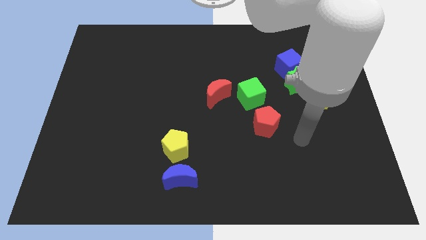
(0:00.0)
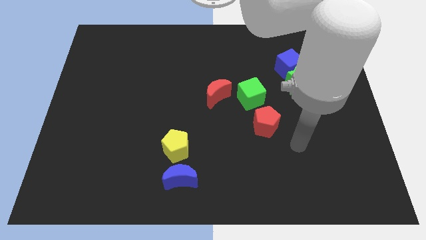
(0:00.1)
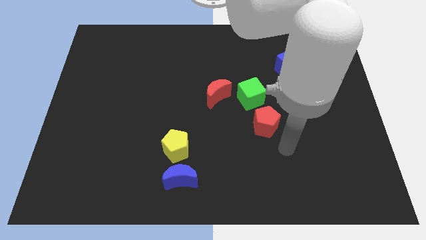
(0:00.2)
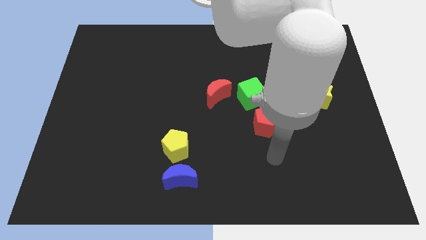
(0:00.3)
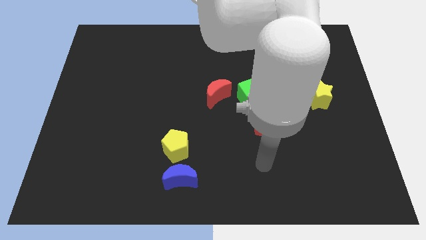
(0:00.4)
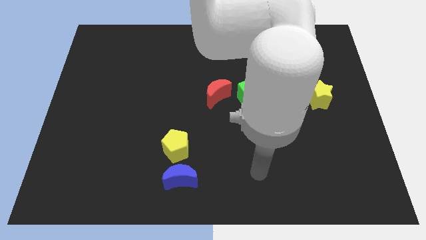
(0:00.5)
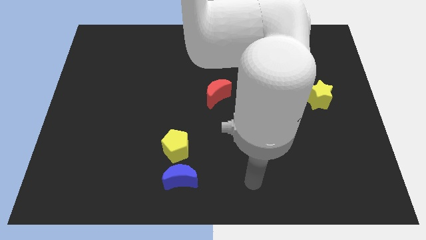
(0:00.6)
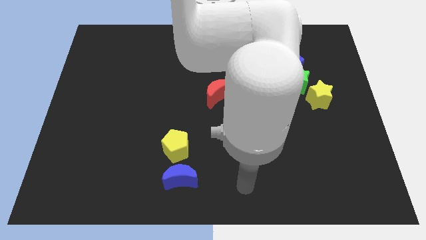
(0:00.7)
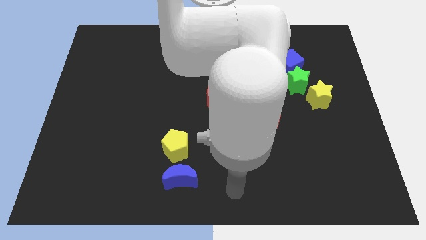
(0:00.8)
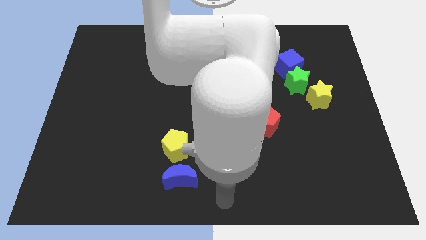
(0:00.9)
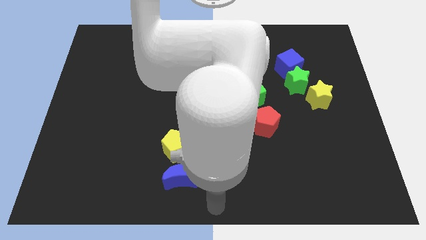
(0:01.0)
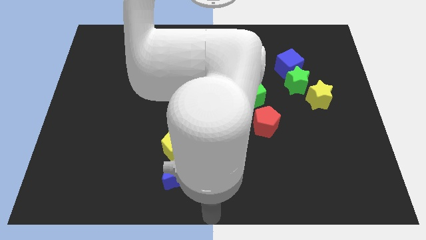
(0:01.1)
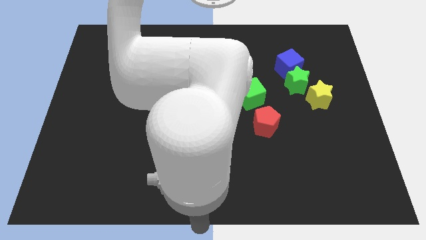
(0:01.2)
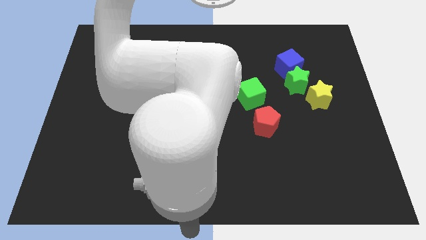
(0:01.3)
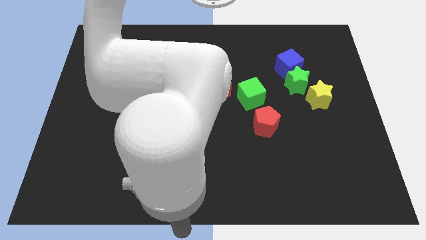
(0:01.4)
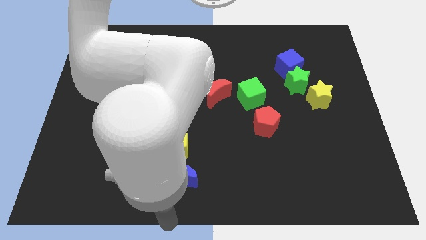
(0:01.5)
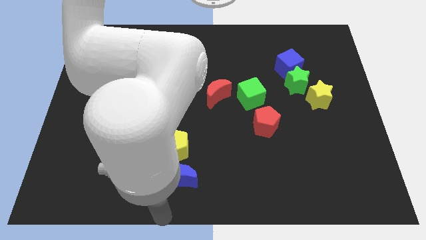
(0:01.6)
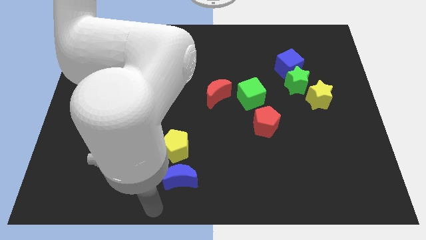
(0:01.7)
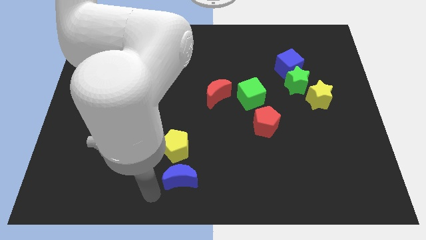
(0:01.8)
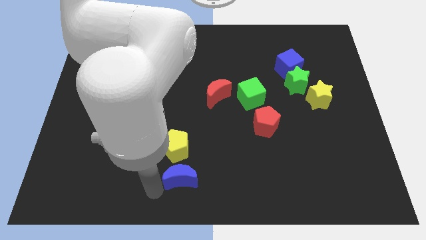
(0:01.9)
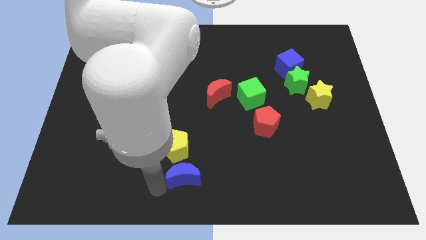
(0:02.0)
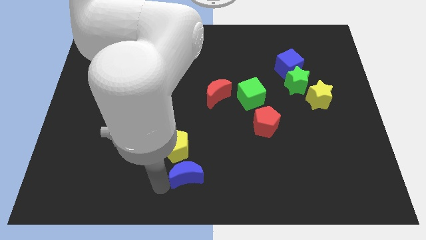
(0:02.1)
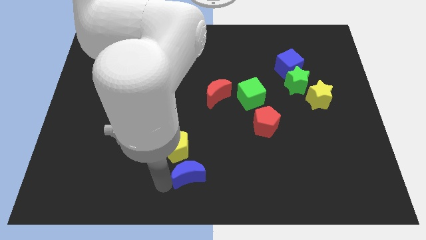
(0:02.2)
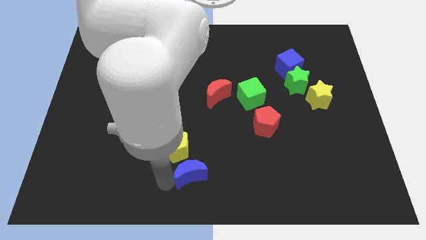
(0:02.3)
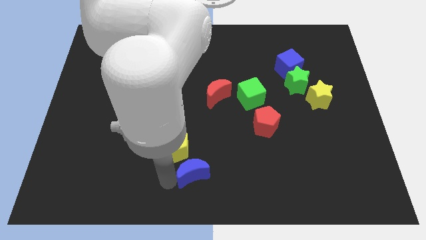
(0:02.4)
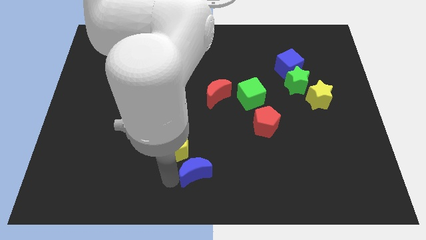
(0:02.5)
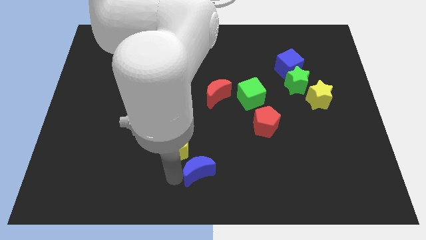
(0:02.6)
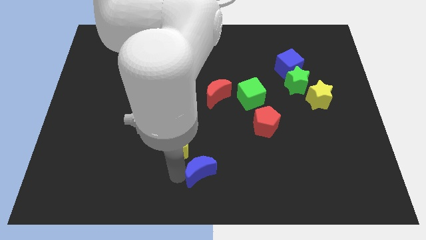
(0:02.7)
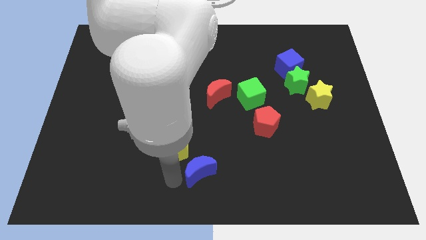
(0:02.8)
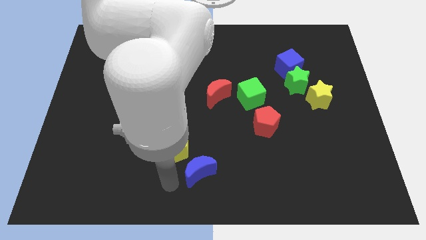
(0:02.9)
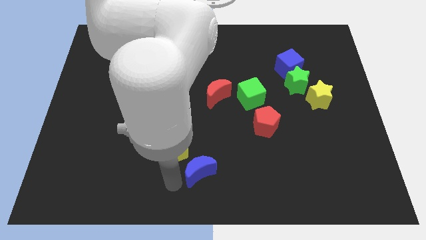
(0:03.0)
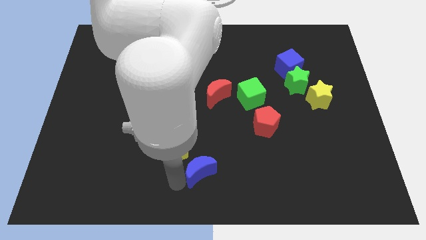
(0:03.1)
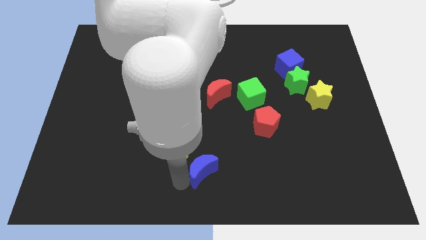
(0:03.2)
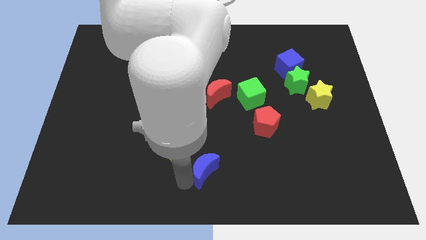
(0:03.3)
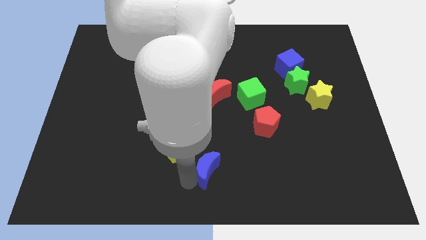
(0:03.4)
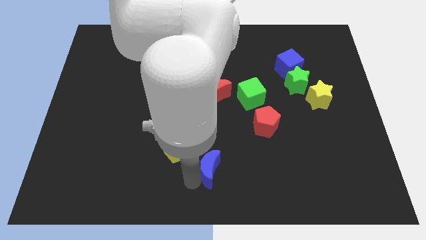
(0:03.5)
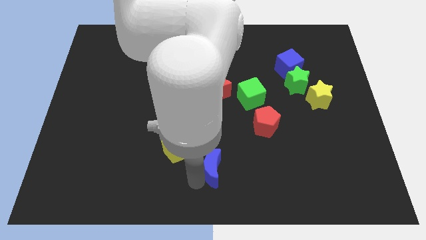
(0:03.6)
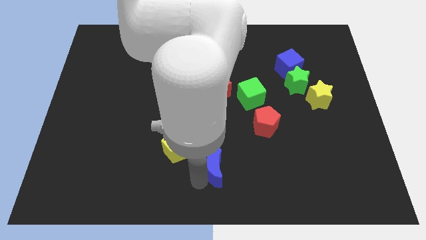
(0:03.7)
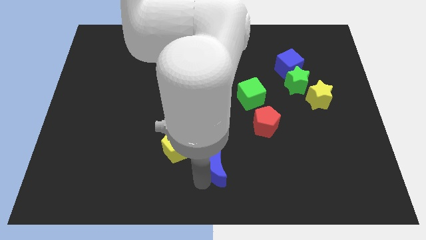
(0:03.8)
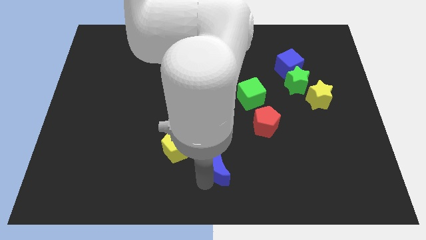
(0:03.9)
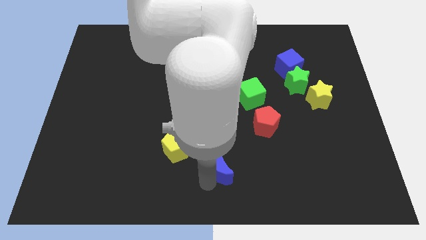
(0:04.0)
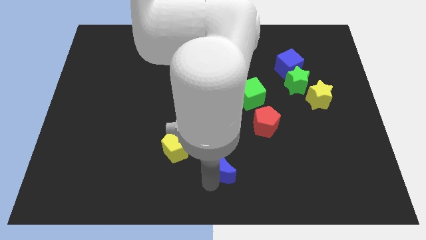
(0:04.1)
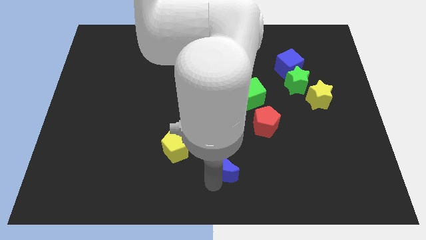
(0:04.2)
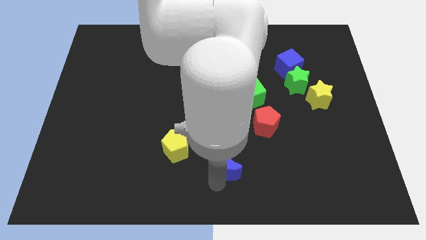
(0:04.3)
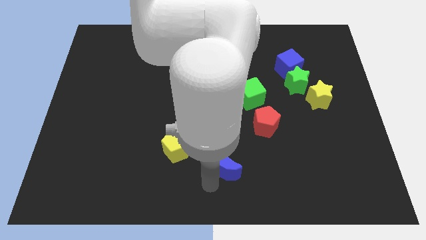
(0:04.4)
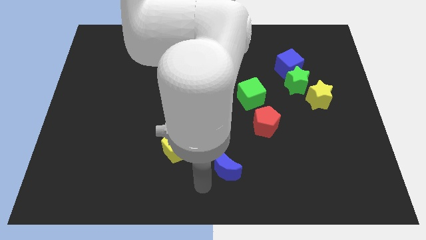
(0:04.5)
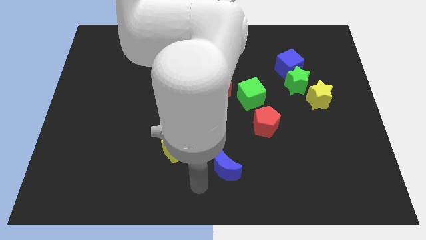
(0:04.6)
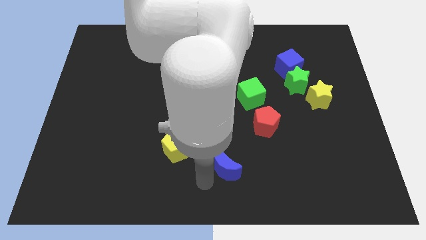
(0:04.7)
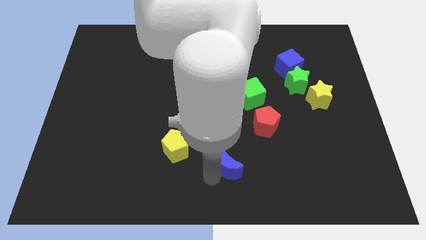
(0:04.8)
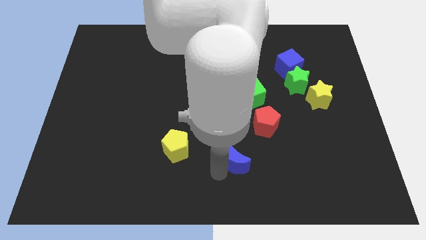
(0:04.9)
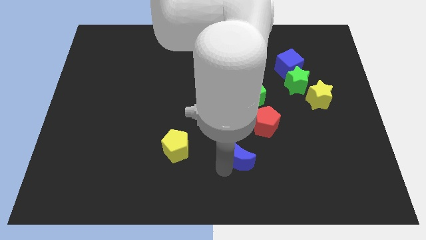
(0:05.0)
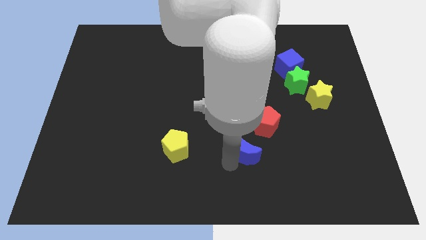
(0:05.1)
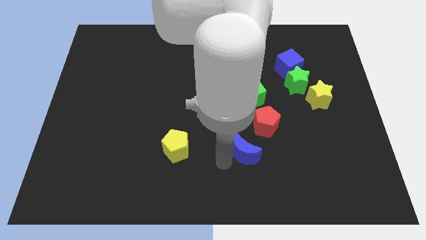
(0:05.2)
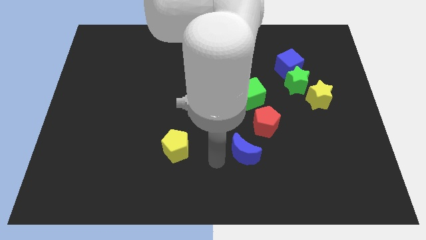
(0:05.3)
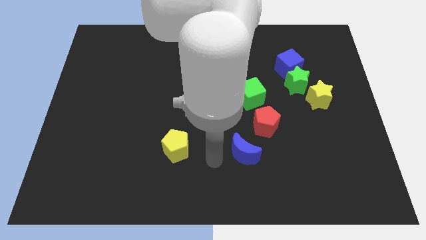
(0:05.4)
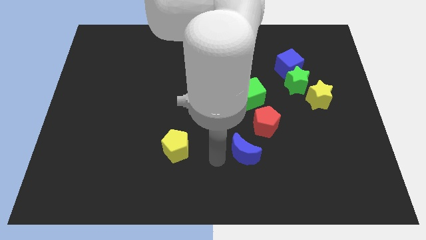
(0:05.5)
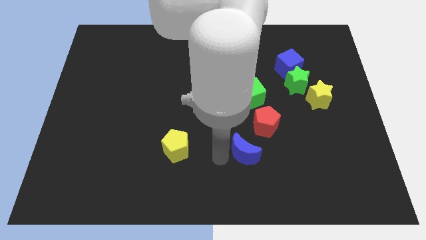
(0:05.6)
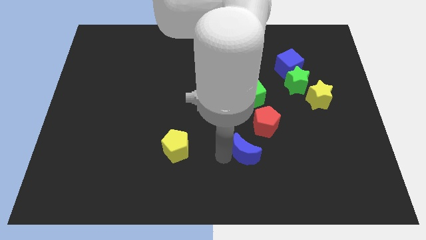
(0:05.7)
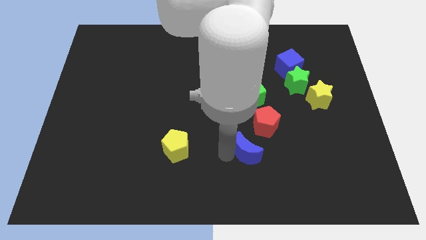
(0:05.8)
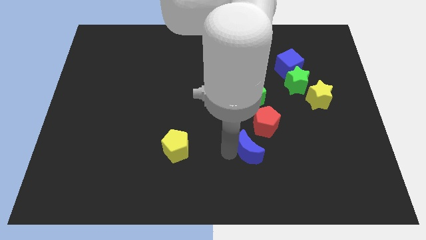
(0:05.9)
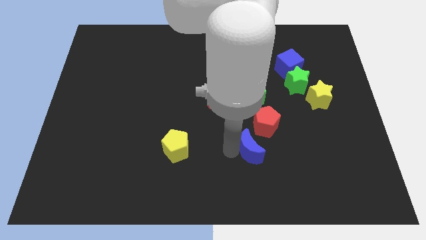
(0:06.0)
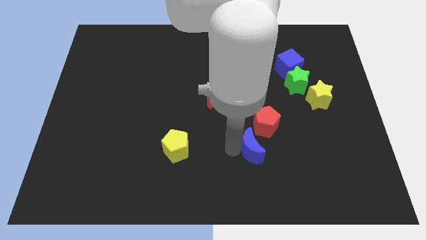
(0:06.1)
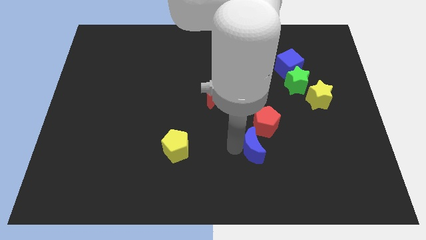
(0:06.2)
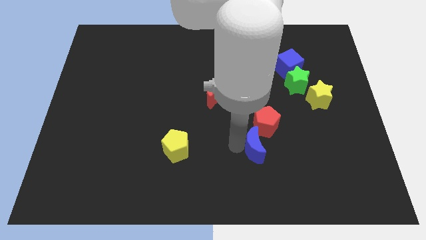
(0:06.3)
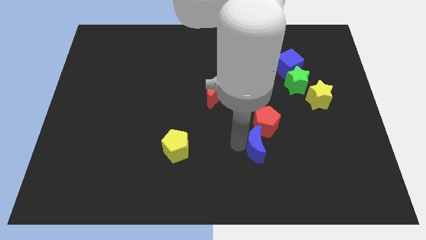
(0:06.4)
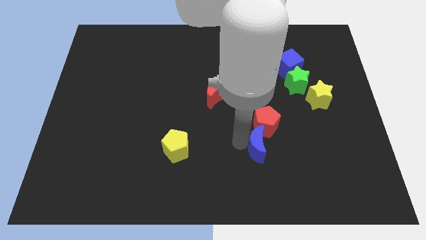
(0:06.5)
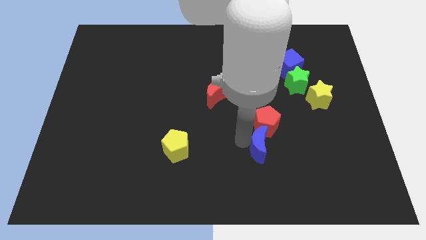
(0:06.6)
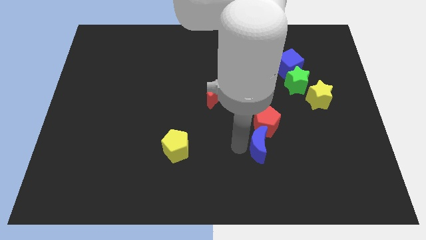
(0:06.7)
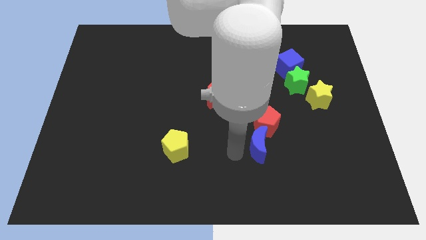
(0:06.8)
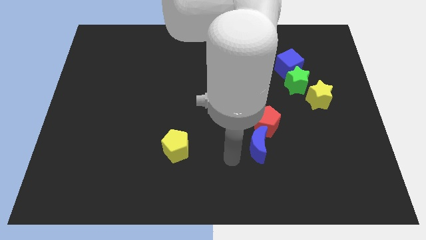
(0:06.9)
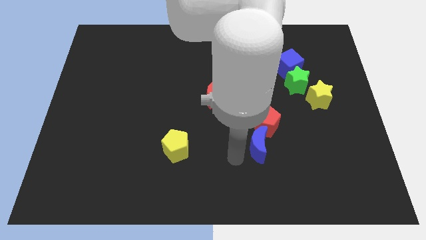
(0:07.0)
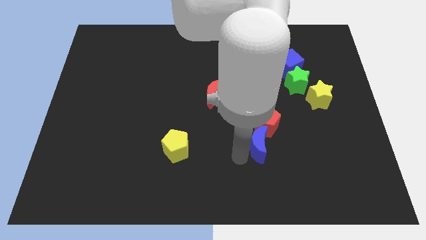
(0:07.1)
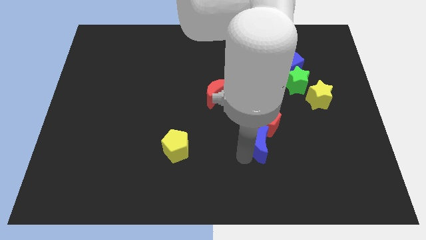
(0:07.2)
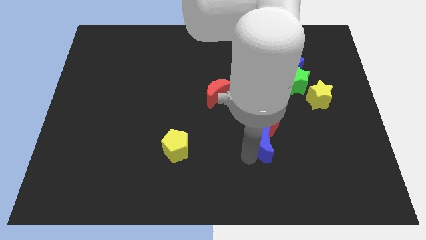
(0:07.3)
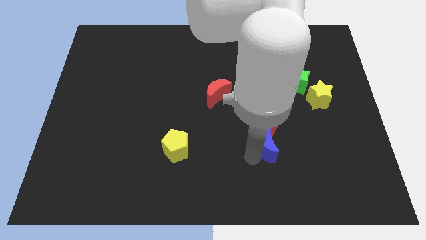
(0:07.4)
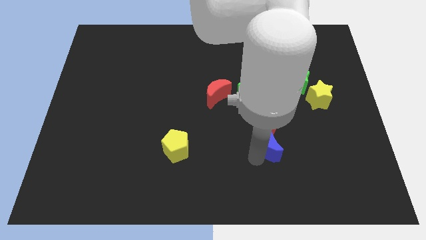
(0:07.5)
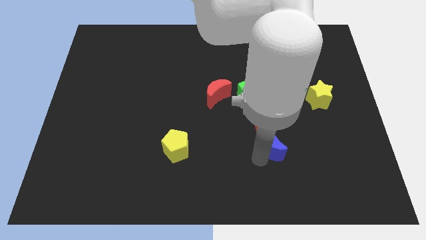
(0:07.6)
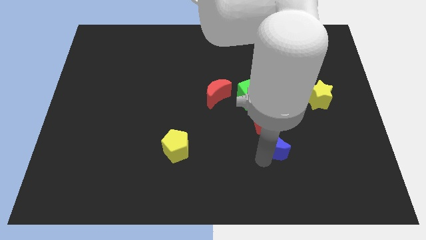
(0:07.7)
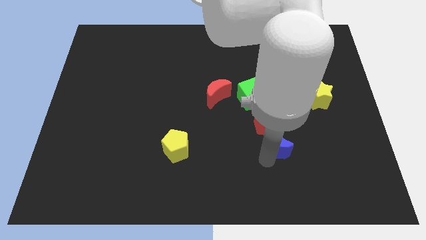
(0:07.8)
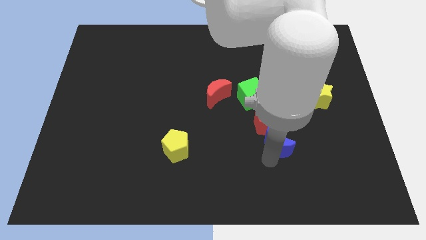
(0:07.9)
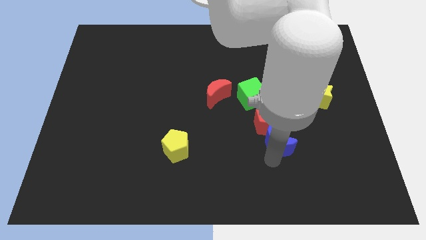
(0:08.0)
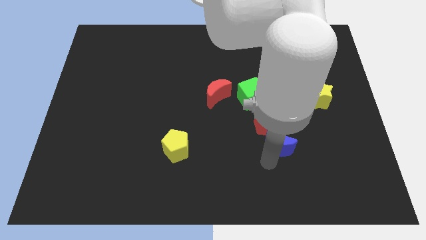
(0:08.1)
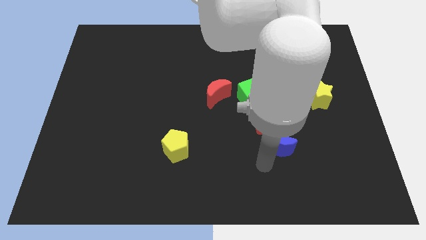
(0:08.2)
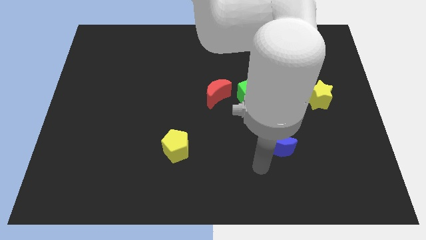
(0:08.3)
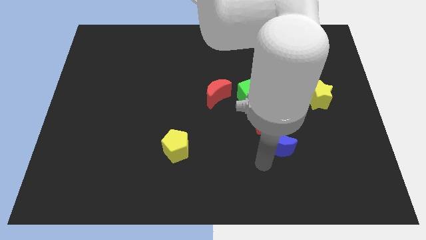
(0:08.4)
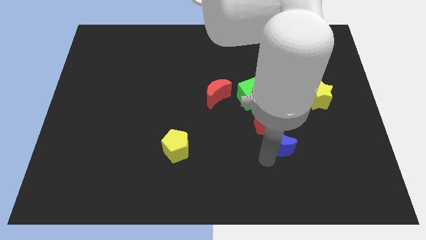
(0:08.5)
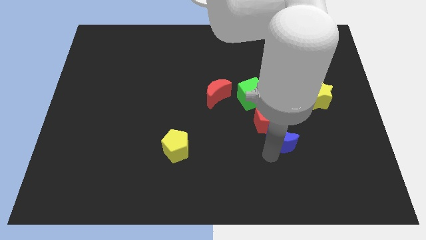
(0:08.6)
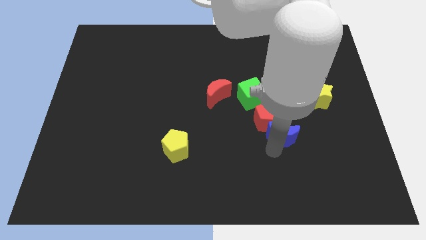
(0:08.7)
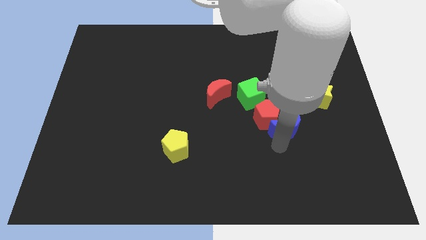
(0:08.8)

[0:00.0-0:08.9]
push the blue moon up and then to the right
